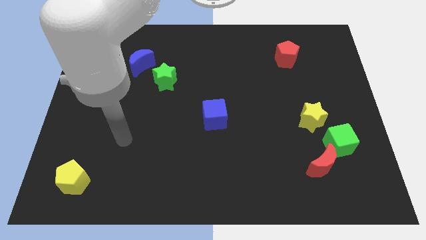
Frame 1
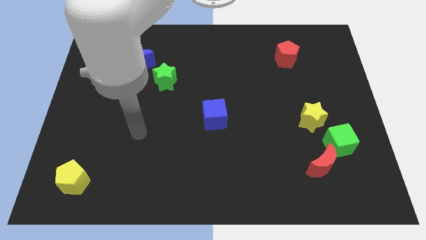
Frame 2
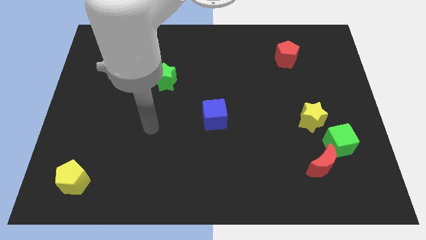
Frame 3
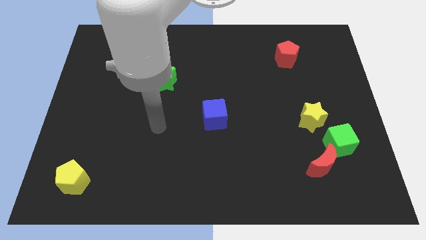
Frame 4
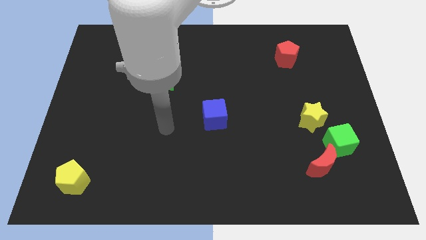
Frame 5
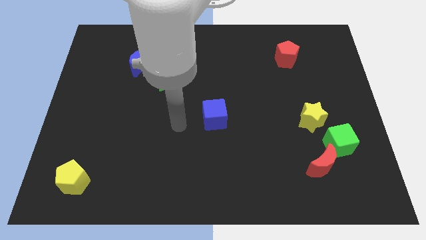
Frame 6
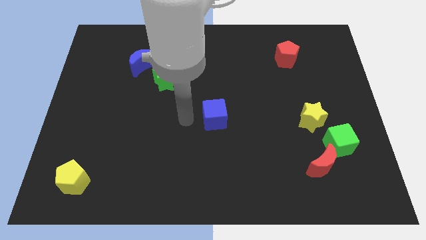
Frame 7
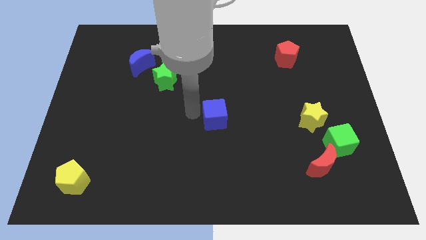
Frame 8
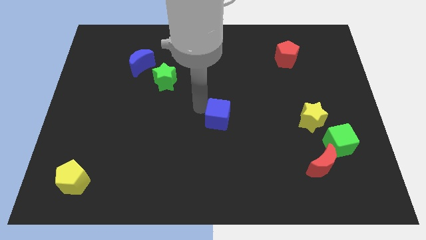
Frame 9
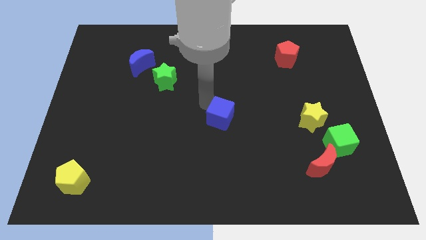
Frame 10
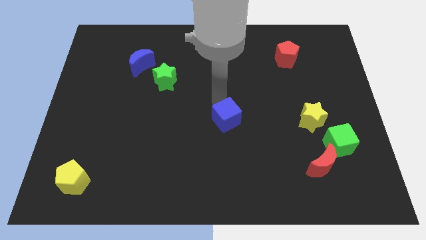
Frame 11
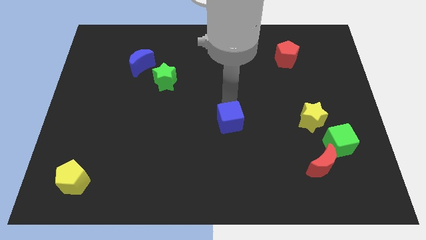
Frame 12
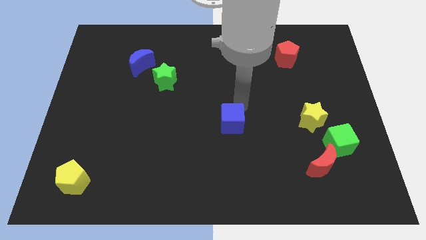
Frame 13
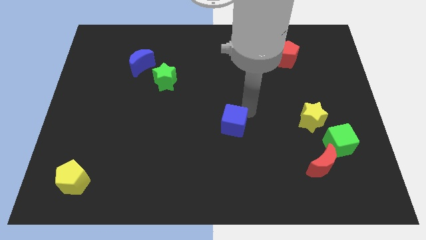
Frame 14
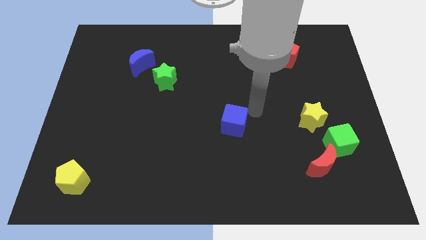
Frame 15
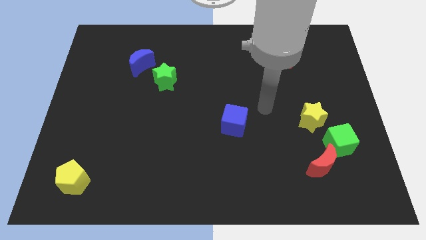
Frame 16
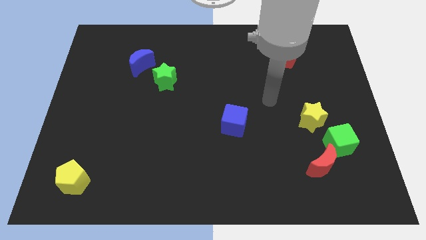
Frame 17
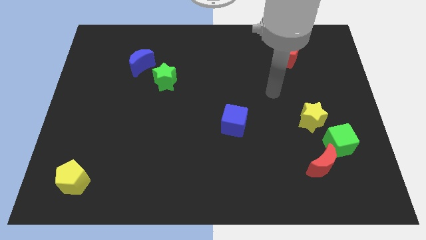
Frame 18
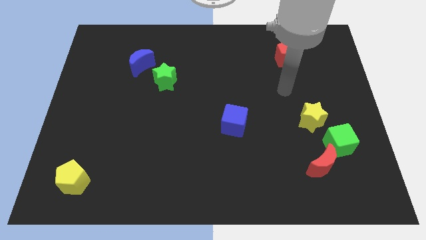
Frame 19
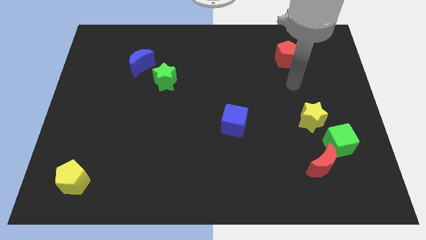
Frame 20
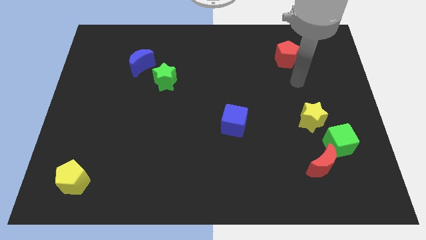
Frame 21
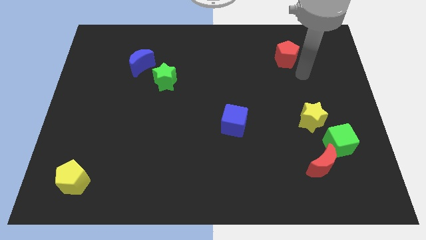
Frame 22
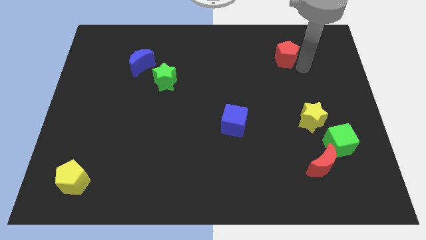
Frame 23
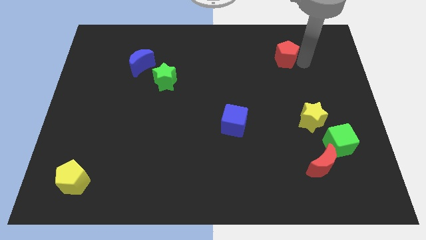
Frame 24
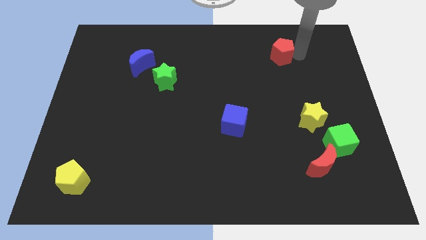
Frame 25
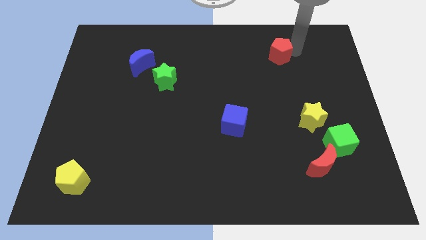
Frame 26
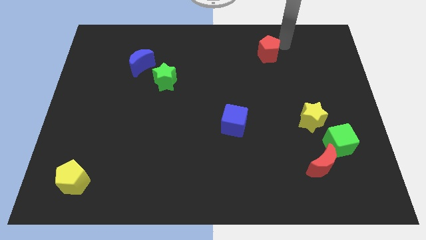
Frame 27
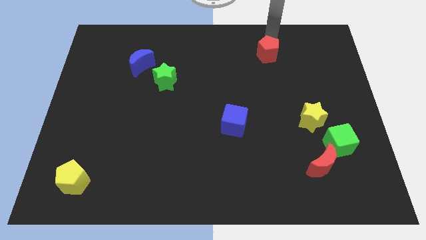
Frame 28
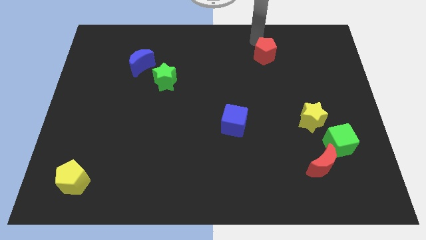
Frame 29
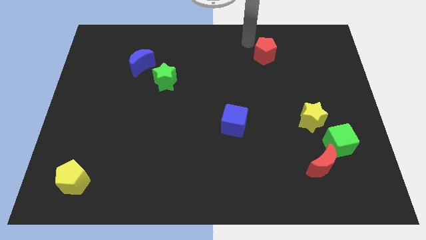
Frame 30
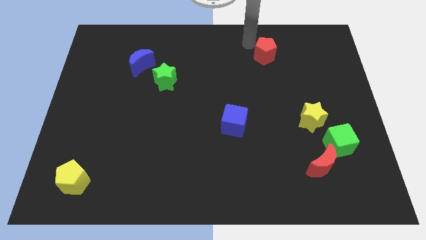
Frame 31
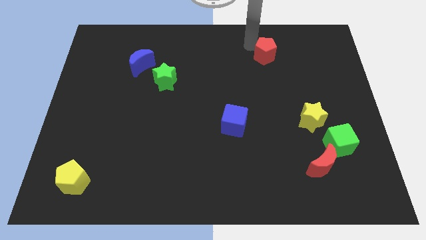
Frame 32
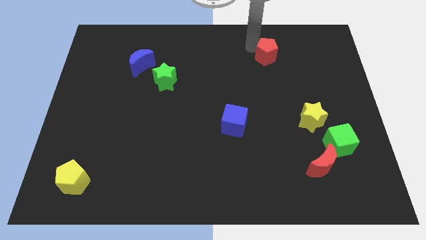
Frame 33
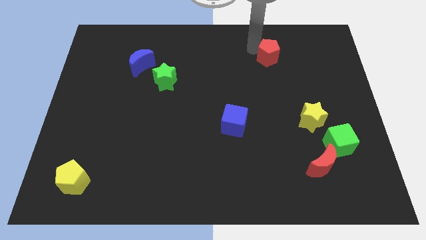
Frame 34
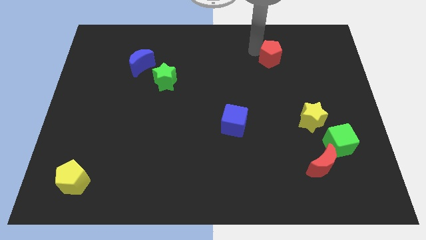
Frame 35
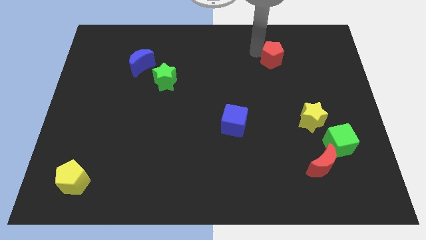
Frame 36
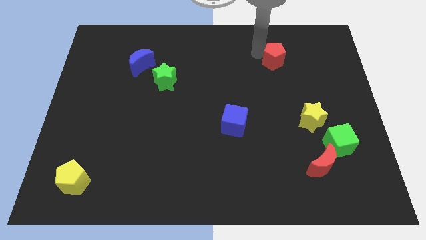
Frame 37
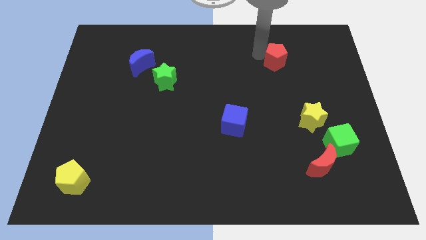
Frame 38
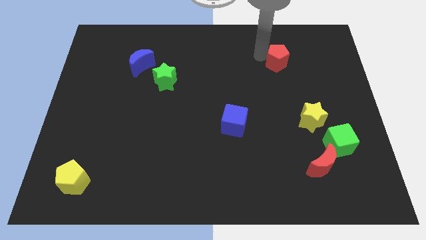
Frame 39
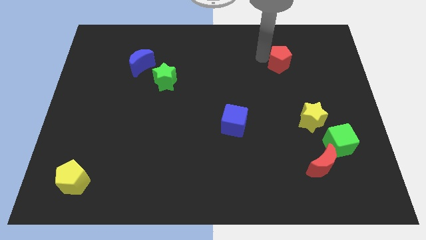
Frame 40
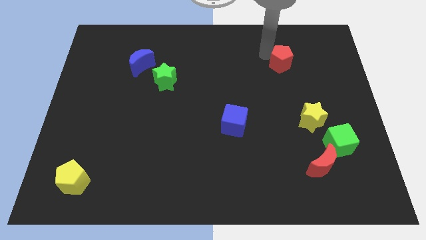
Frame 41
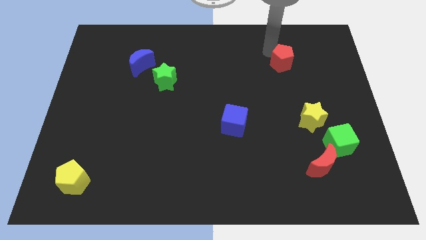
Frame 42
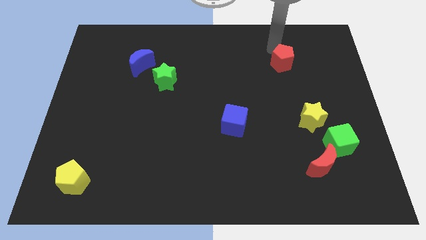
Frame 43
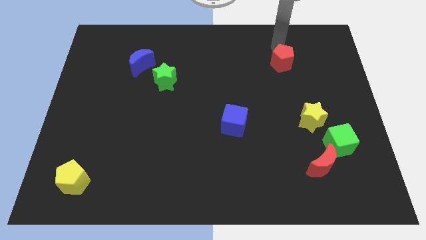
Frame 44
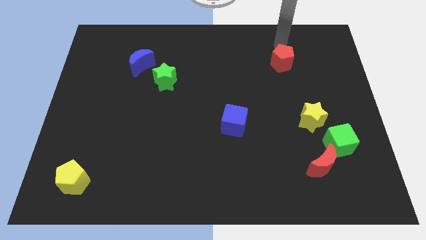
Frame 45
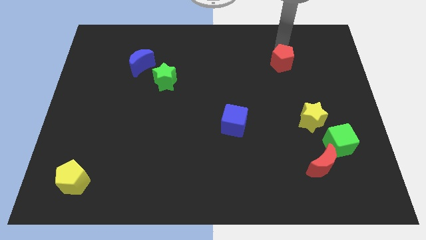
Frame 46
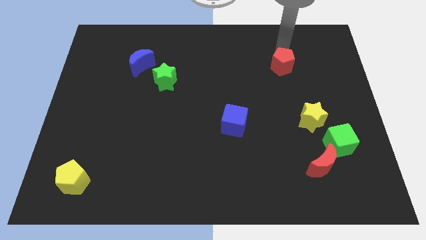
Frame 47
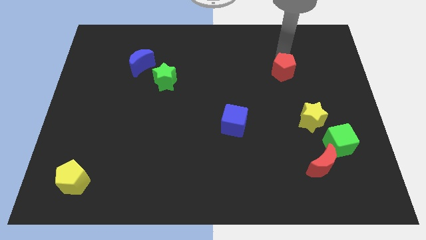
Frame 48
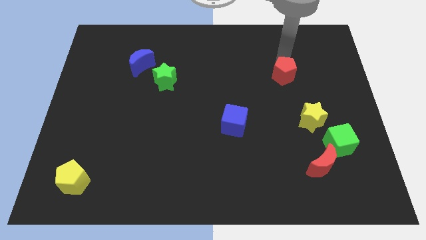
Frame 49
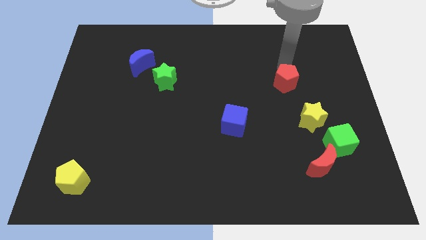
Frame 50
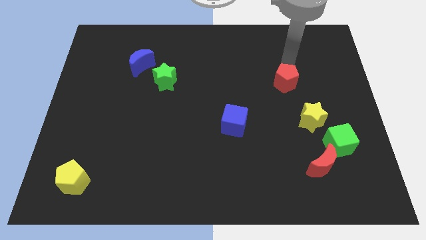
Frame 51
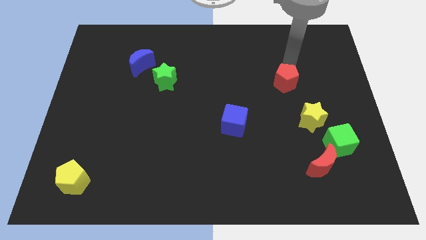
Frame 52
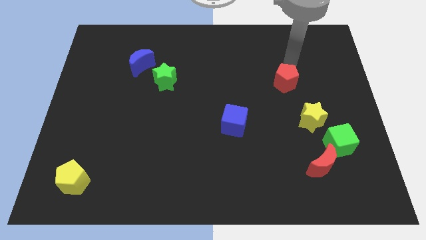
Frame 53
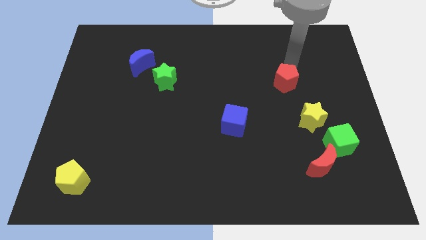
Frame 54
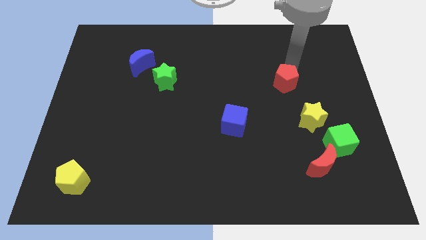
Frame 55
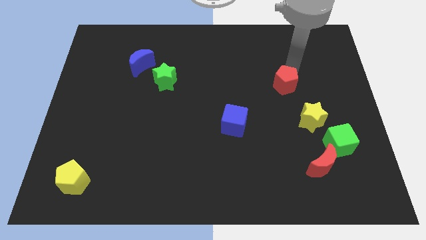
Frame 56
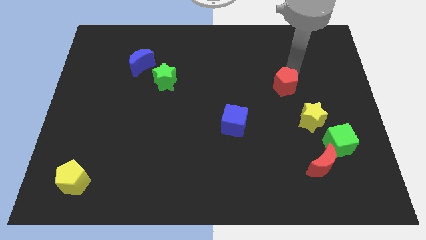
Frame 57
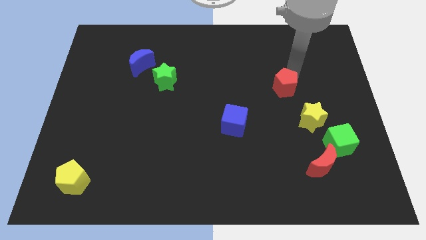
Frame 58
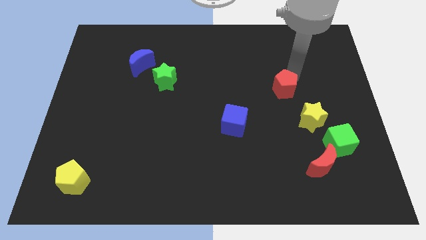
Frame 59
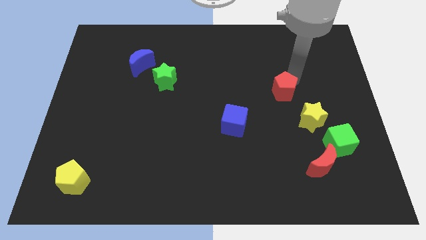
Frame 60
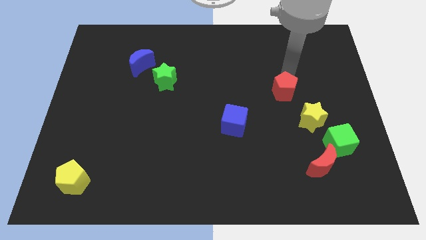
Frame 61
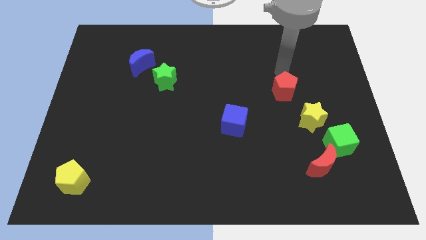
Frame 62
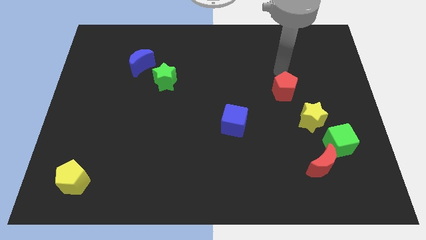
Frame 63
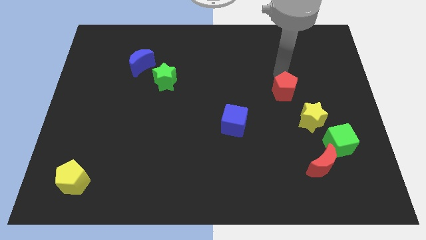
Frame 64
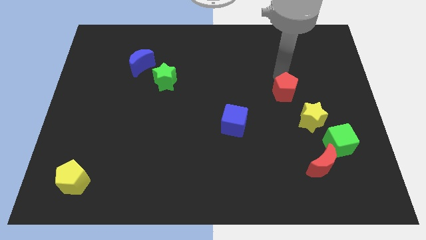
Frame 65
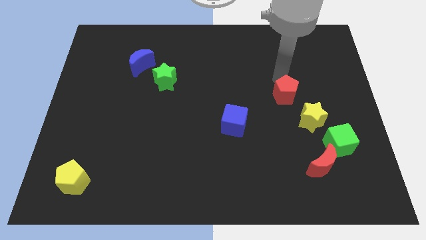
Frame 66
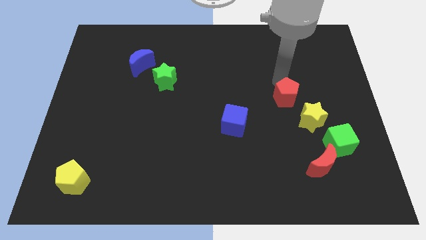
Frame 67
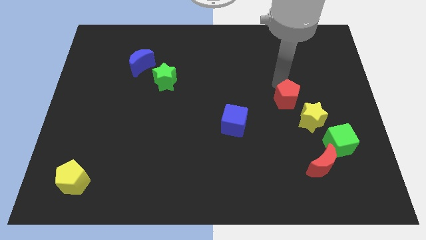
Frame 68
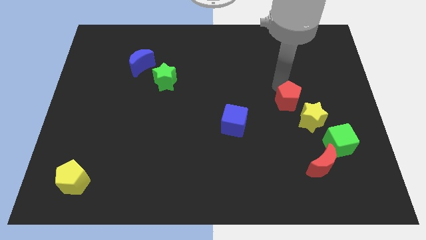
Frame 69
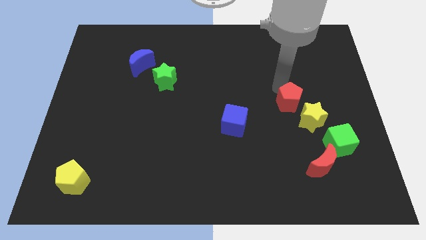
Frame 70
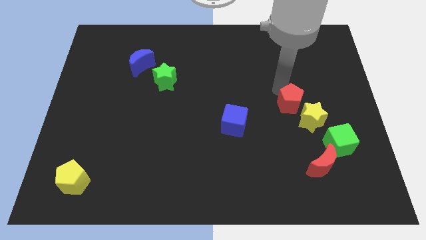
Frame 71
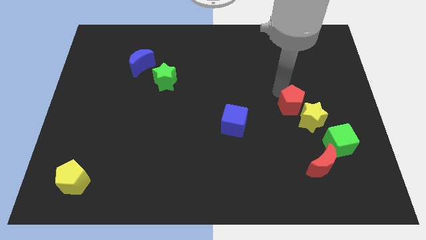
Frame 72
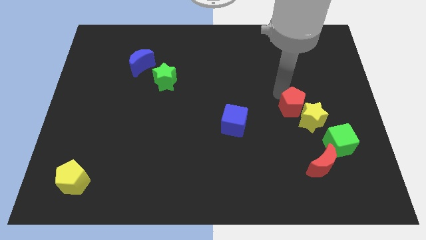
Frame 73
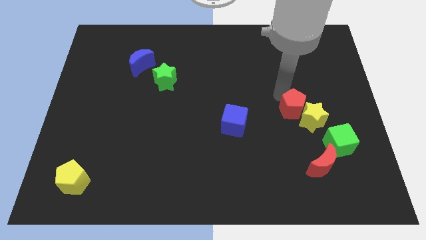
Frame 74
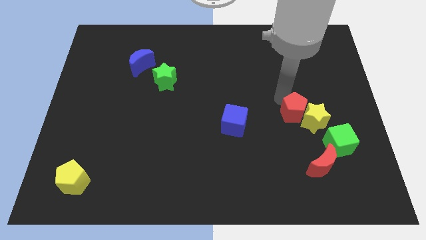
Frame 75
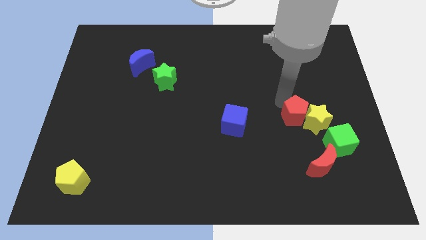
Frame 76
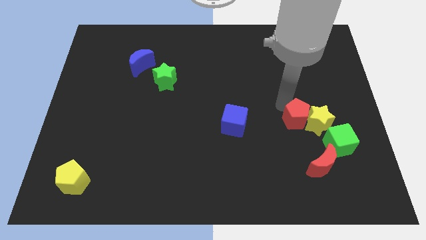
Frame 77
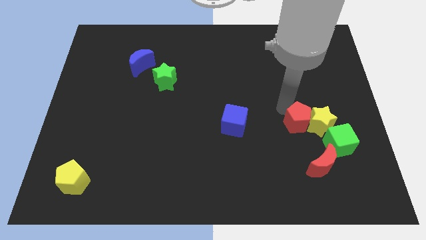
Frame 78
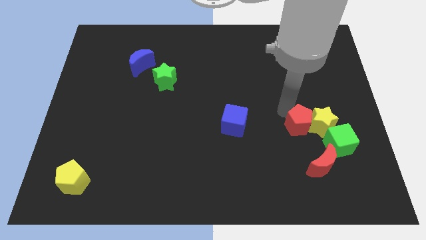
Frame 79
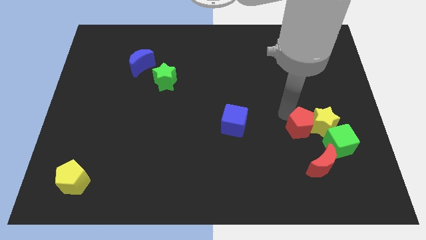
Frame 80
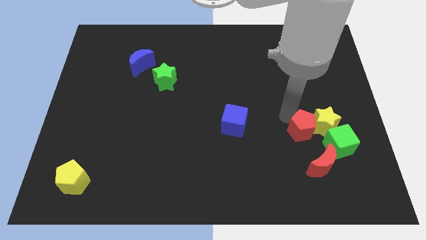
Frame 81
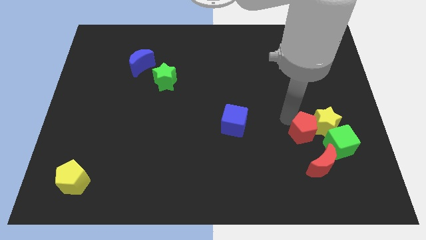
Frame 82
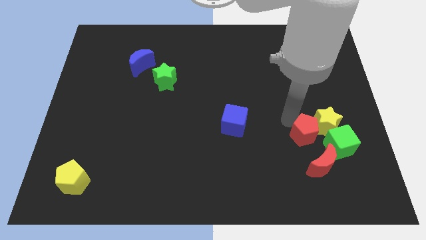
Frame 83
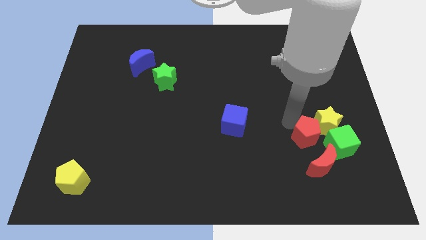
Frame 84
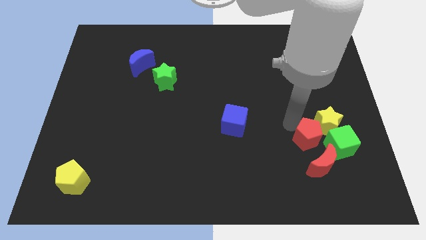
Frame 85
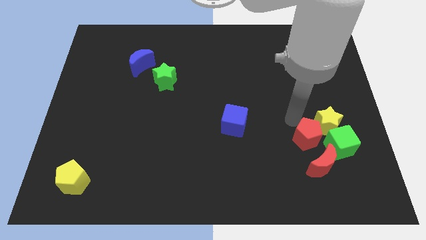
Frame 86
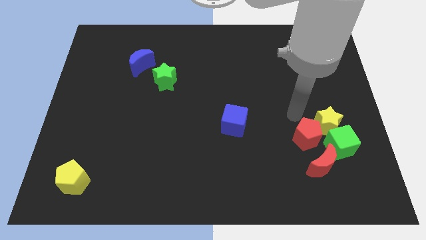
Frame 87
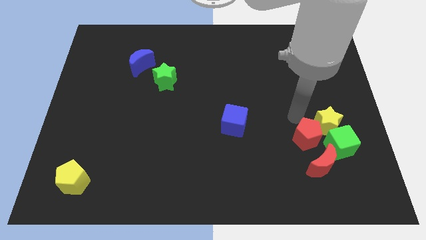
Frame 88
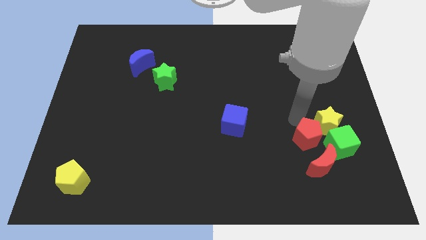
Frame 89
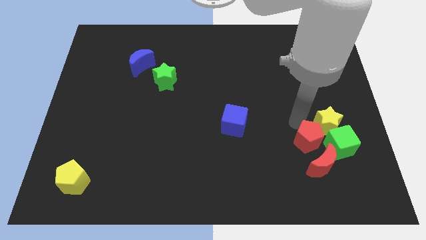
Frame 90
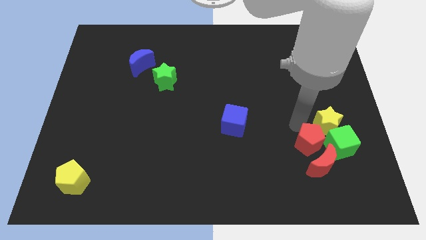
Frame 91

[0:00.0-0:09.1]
push the red pentagon next to the red moon
